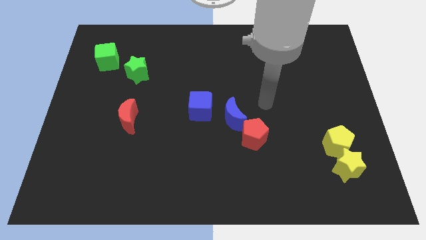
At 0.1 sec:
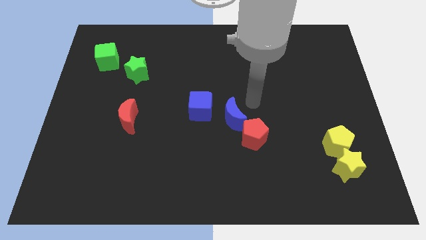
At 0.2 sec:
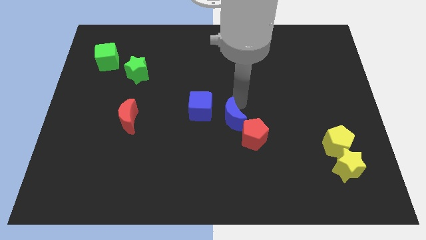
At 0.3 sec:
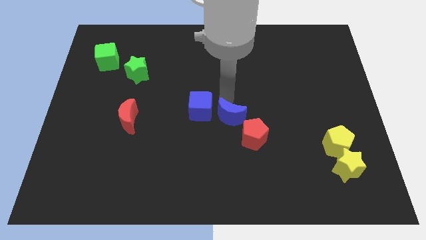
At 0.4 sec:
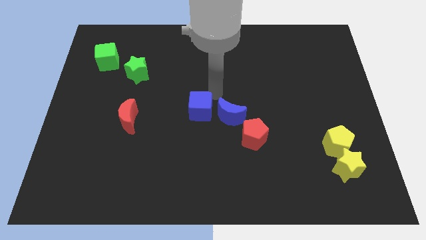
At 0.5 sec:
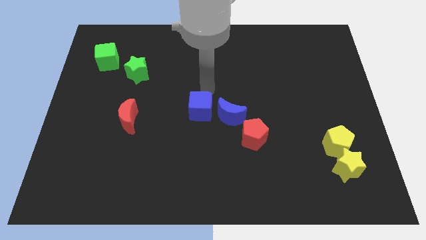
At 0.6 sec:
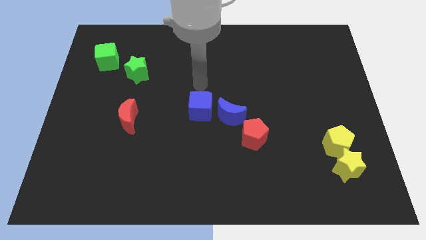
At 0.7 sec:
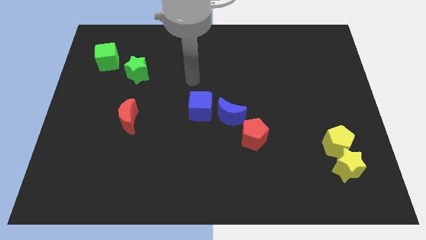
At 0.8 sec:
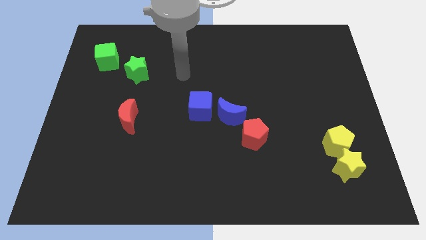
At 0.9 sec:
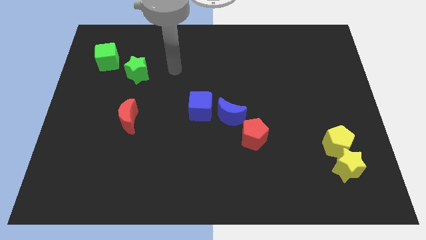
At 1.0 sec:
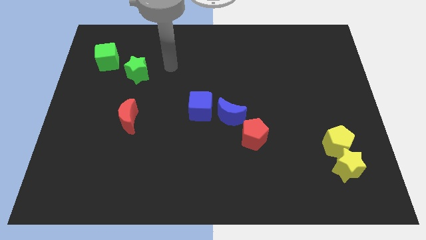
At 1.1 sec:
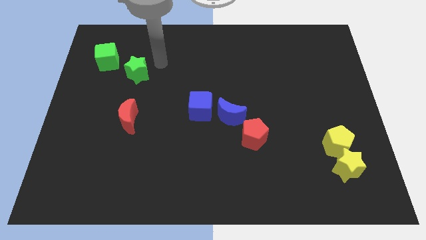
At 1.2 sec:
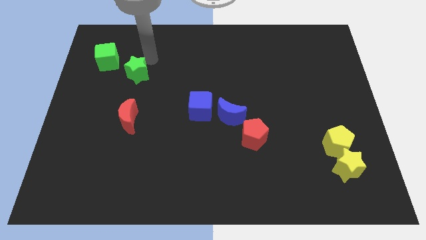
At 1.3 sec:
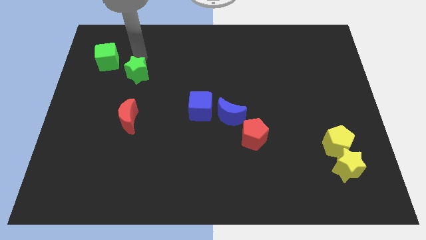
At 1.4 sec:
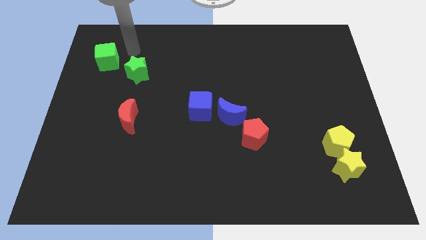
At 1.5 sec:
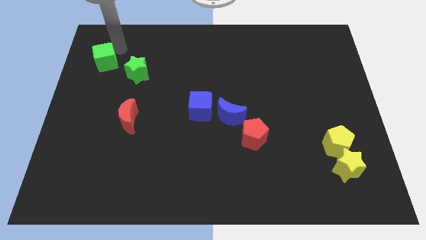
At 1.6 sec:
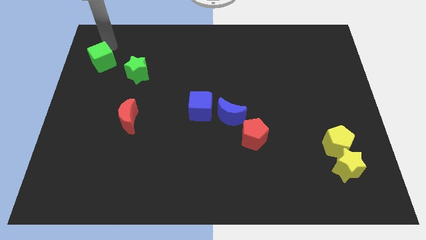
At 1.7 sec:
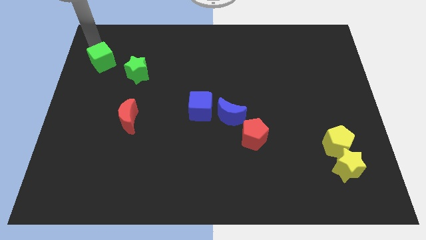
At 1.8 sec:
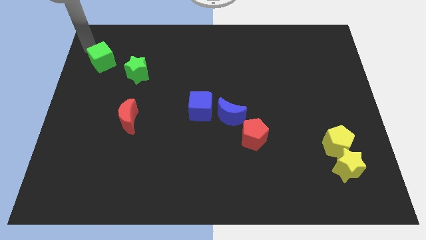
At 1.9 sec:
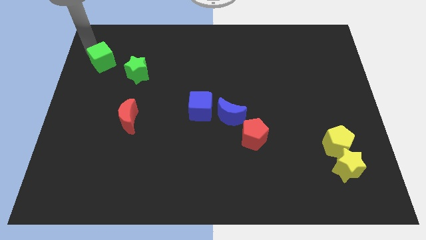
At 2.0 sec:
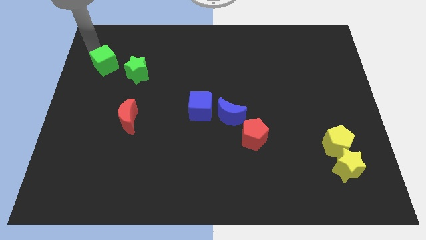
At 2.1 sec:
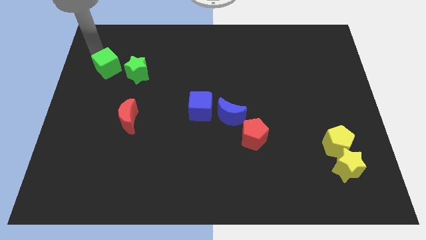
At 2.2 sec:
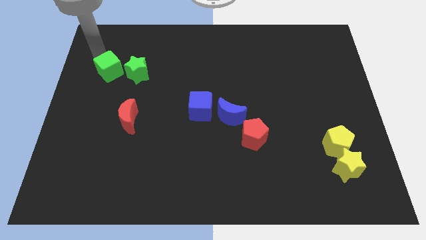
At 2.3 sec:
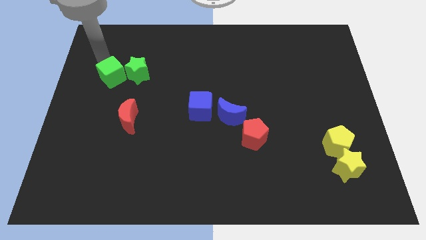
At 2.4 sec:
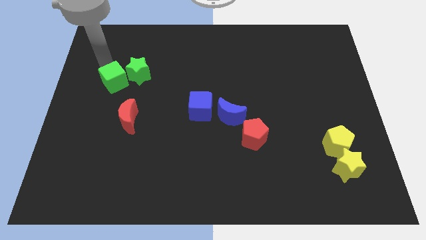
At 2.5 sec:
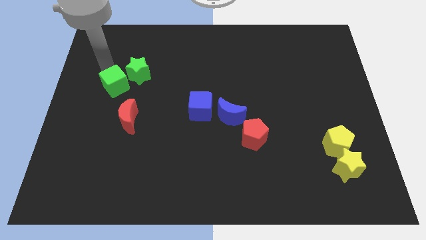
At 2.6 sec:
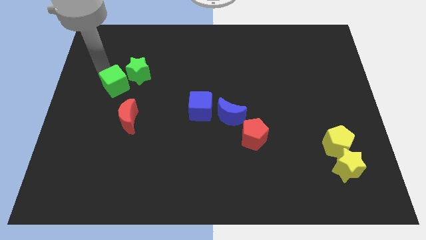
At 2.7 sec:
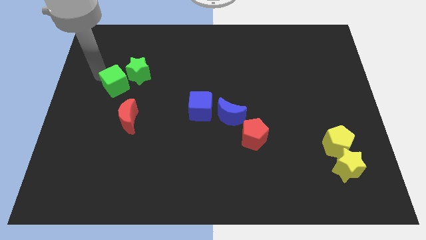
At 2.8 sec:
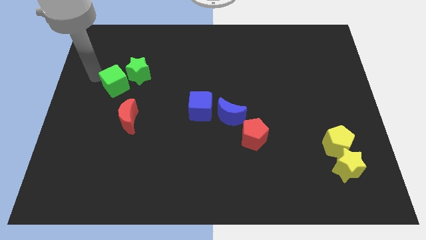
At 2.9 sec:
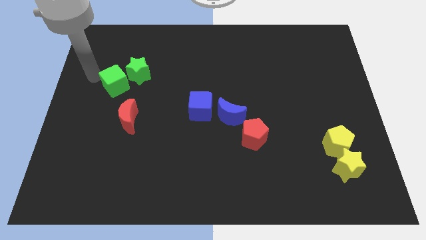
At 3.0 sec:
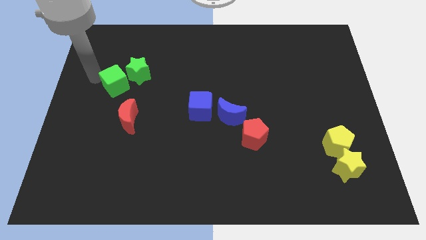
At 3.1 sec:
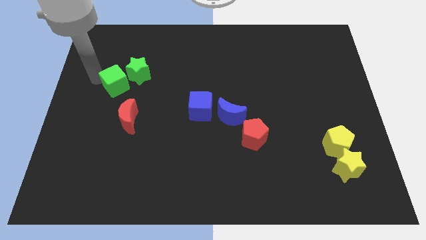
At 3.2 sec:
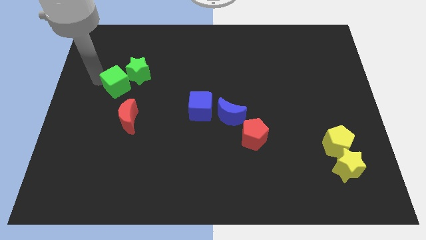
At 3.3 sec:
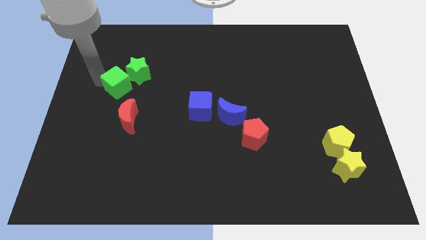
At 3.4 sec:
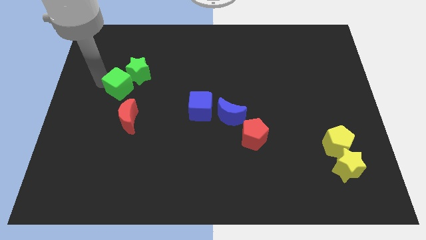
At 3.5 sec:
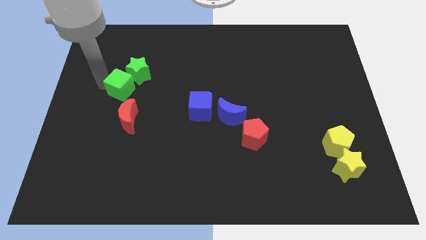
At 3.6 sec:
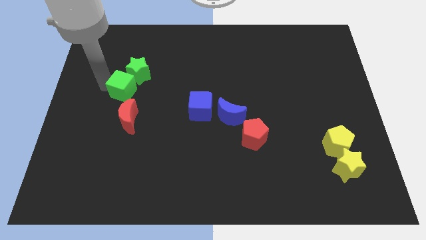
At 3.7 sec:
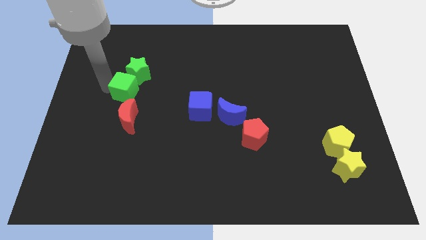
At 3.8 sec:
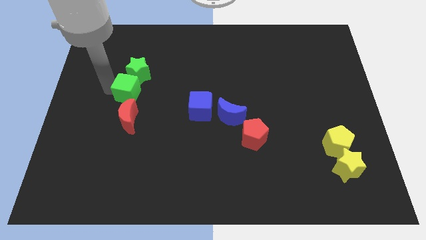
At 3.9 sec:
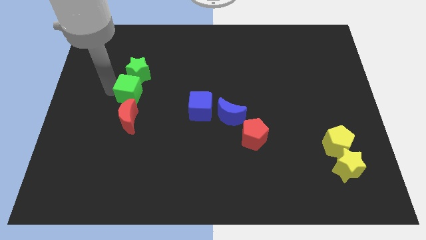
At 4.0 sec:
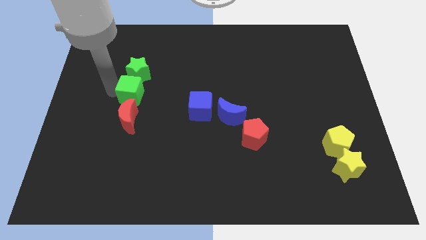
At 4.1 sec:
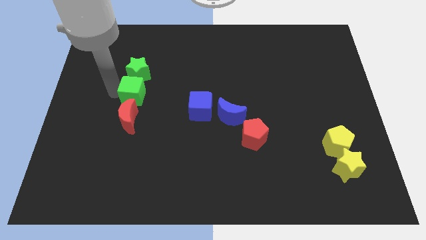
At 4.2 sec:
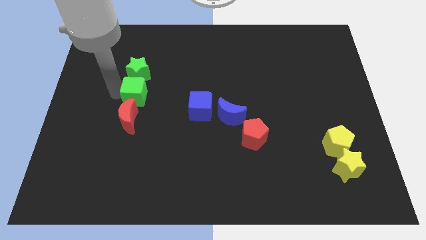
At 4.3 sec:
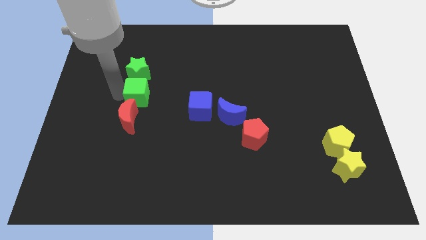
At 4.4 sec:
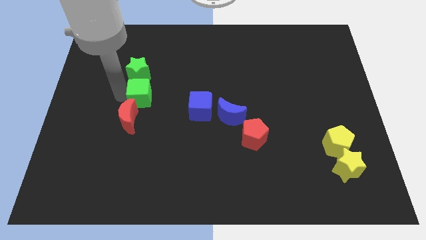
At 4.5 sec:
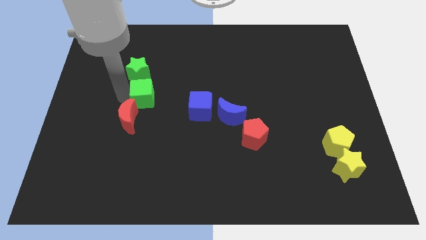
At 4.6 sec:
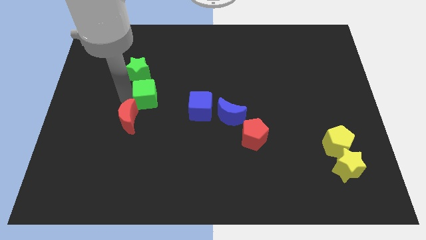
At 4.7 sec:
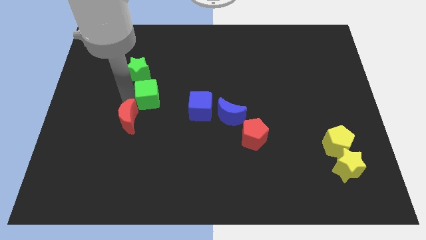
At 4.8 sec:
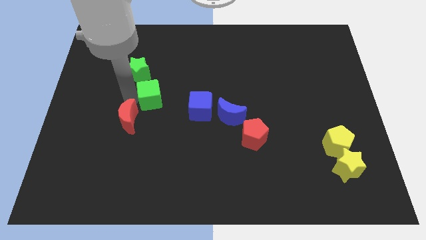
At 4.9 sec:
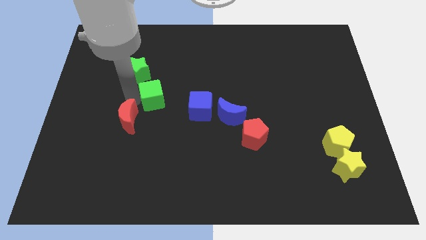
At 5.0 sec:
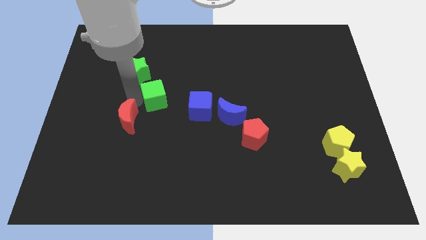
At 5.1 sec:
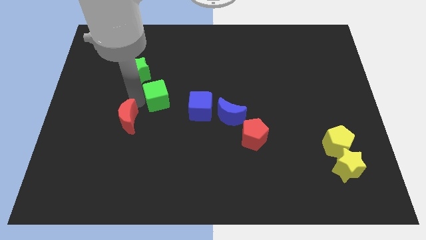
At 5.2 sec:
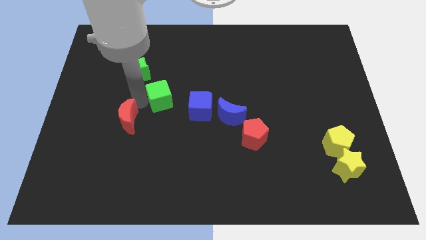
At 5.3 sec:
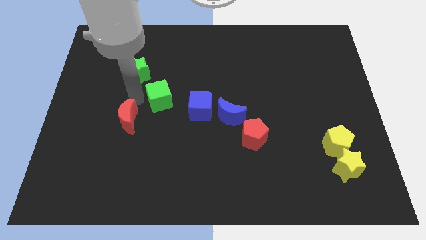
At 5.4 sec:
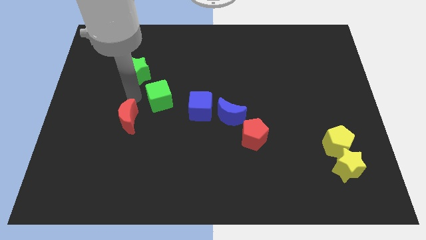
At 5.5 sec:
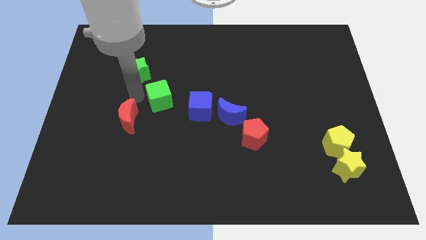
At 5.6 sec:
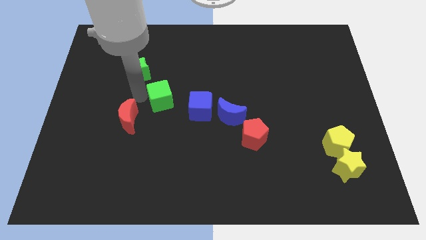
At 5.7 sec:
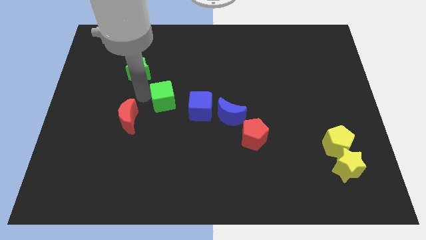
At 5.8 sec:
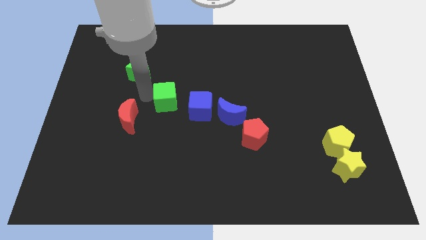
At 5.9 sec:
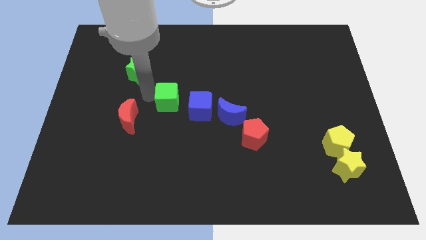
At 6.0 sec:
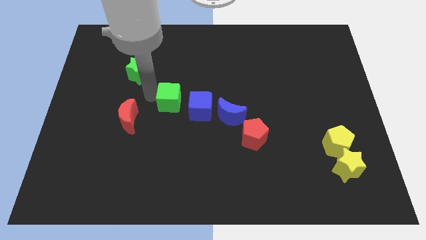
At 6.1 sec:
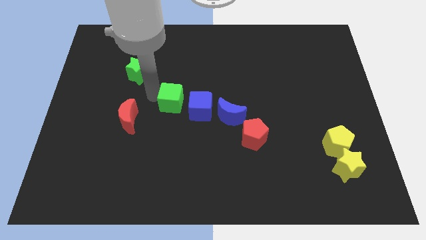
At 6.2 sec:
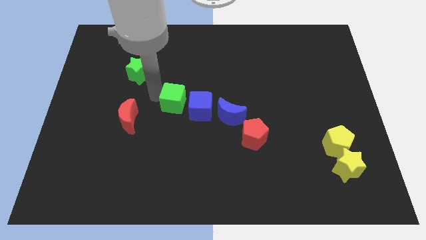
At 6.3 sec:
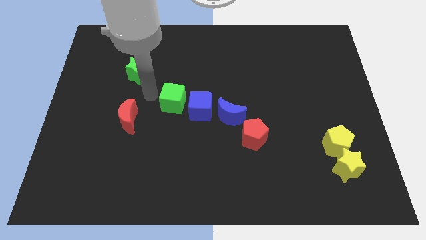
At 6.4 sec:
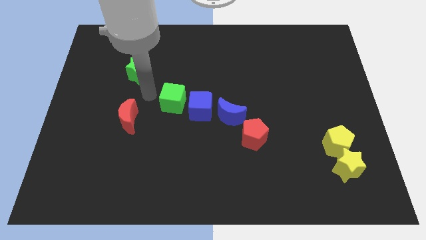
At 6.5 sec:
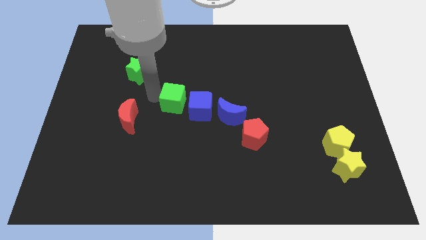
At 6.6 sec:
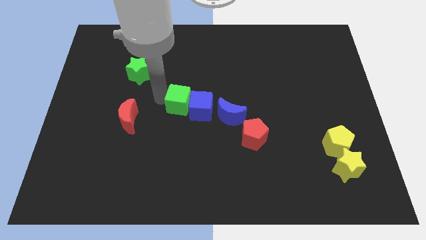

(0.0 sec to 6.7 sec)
put the green cube next to the blue cube
